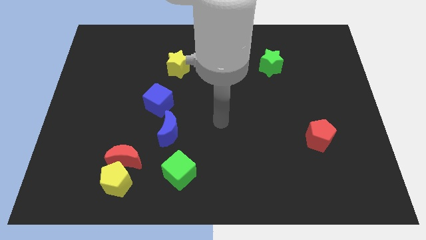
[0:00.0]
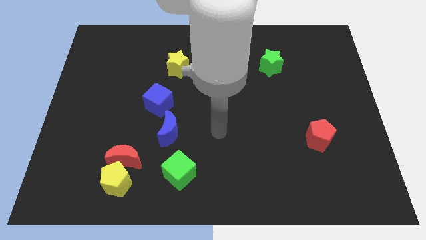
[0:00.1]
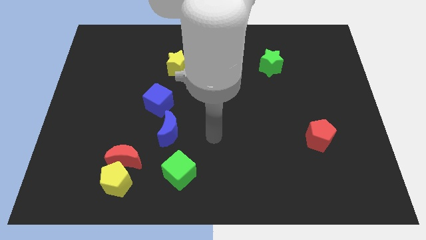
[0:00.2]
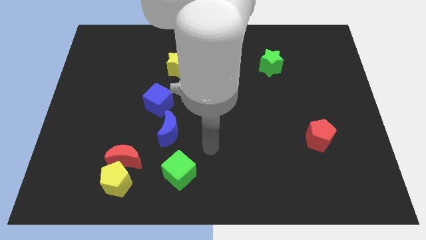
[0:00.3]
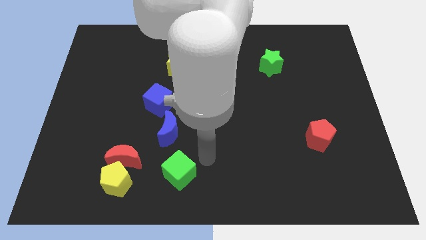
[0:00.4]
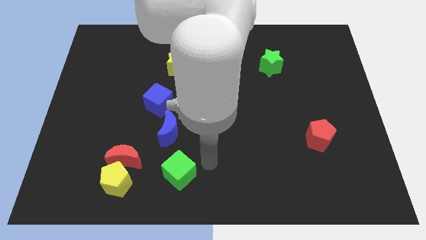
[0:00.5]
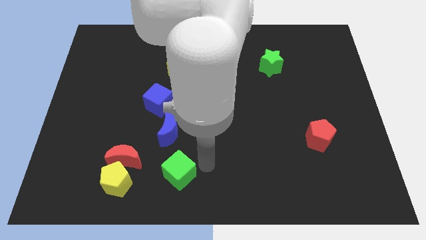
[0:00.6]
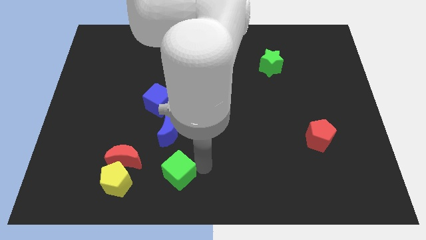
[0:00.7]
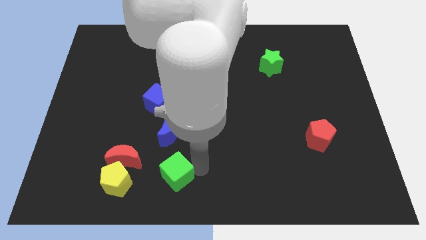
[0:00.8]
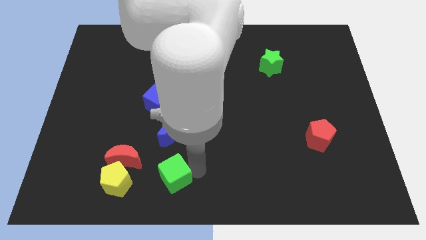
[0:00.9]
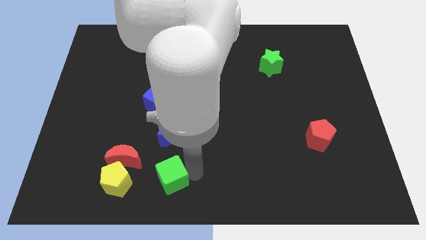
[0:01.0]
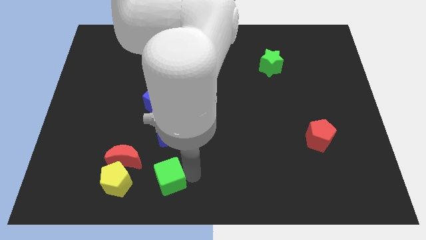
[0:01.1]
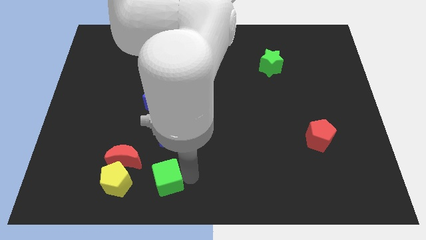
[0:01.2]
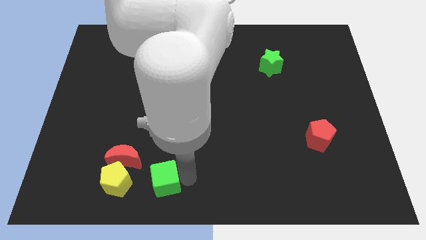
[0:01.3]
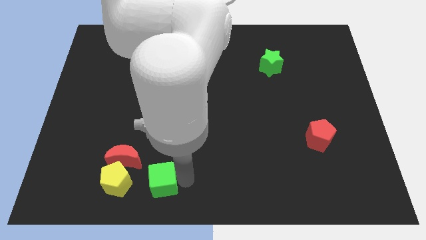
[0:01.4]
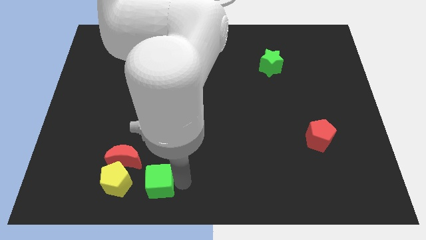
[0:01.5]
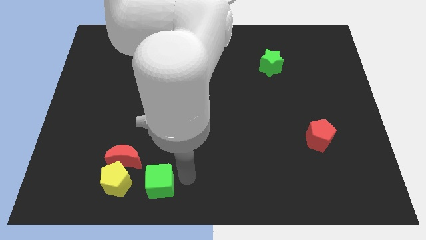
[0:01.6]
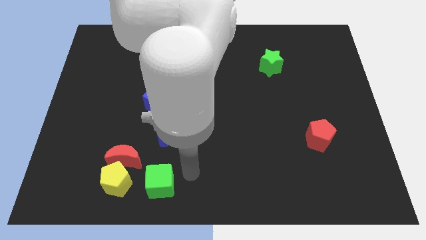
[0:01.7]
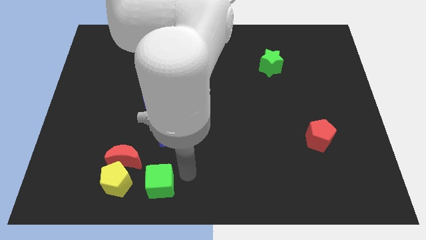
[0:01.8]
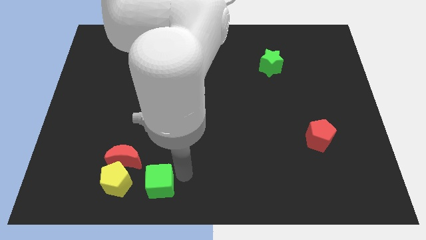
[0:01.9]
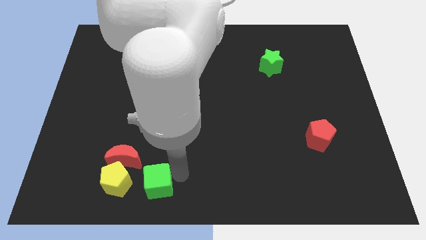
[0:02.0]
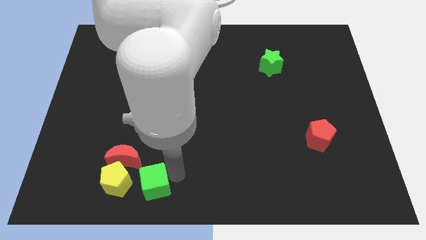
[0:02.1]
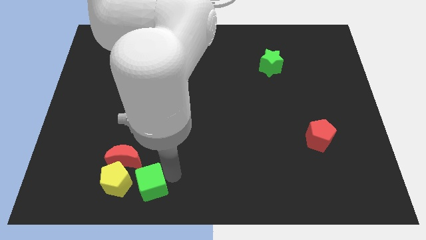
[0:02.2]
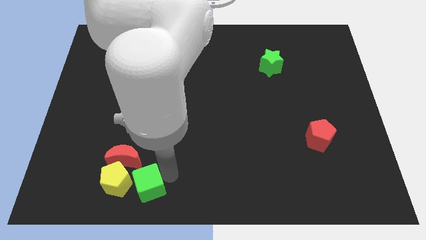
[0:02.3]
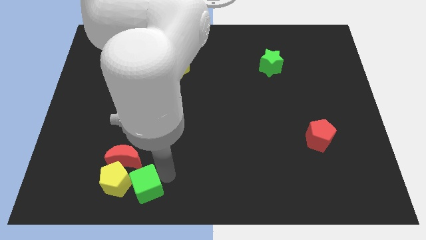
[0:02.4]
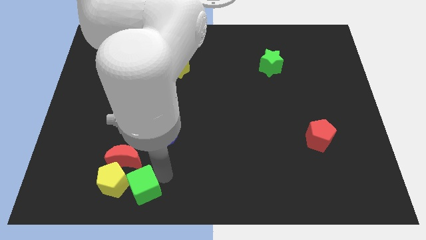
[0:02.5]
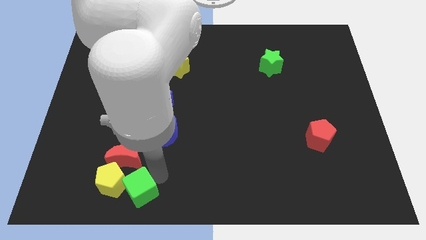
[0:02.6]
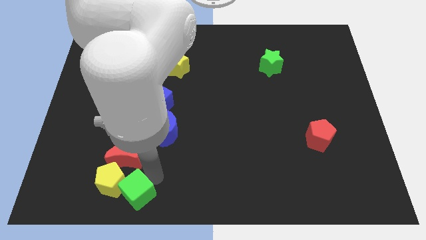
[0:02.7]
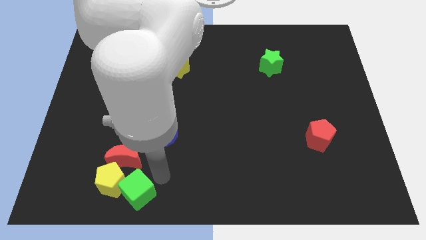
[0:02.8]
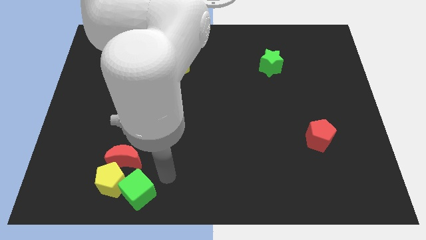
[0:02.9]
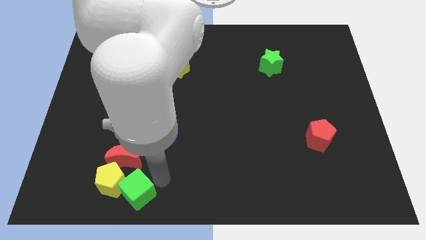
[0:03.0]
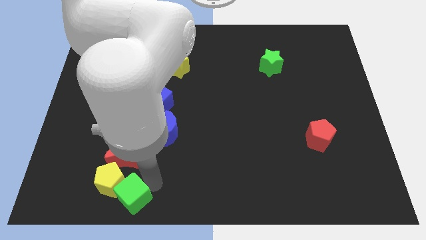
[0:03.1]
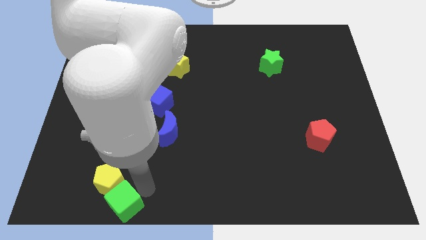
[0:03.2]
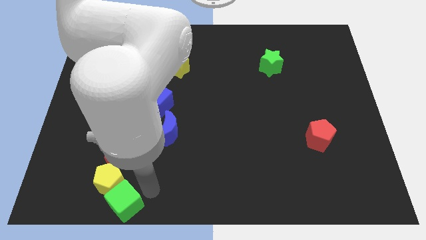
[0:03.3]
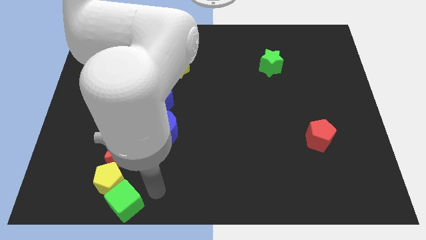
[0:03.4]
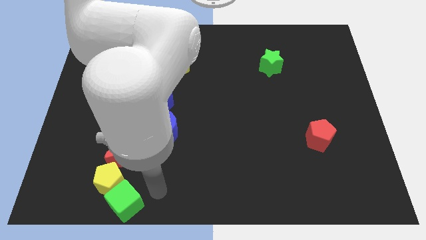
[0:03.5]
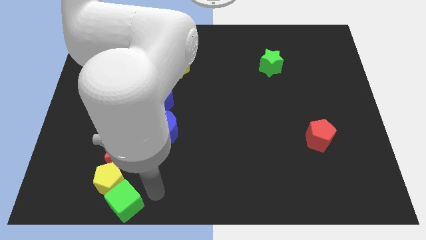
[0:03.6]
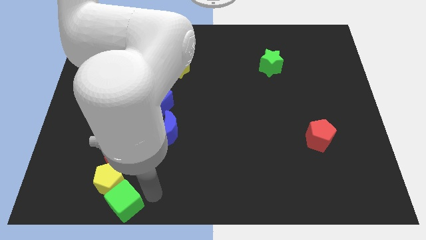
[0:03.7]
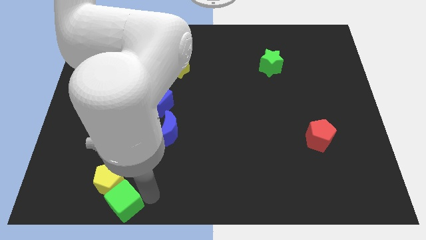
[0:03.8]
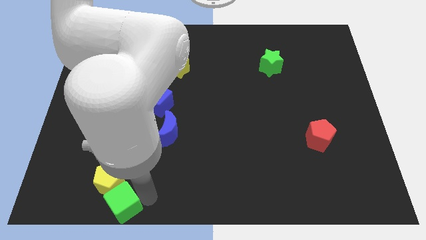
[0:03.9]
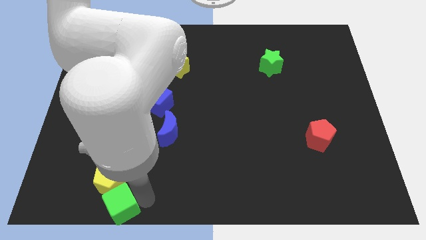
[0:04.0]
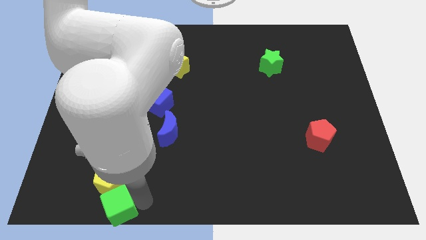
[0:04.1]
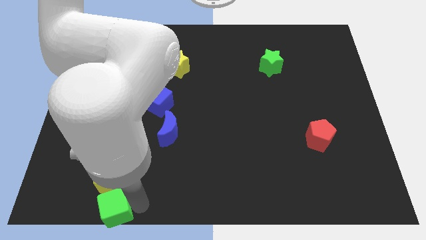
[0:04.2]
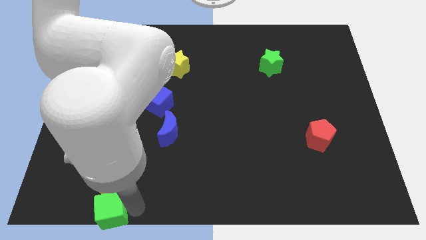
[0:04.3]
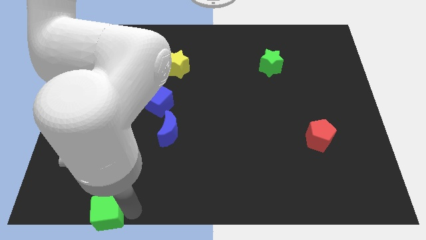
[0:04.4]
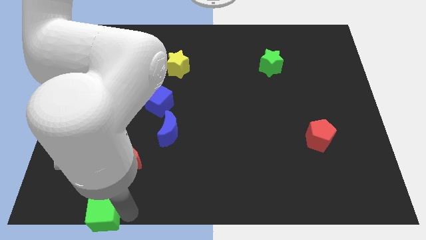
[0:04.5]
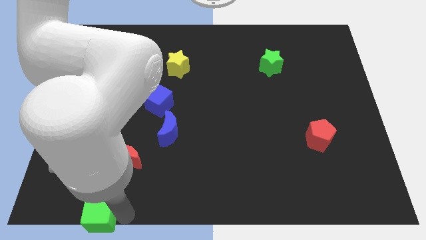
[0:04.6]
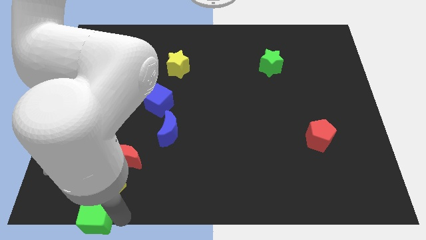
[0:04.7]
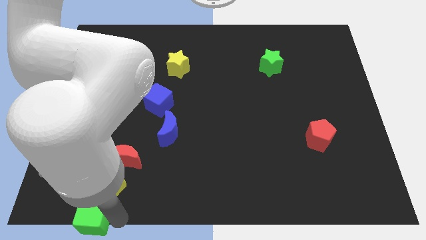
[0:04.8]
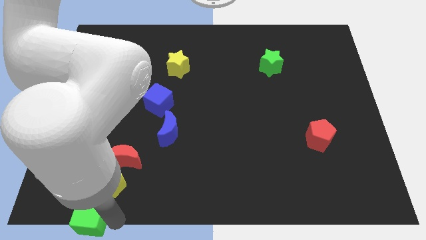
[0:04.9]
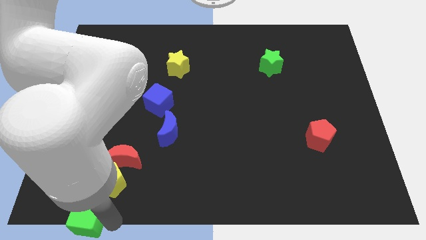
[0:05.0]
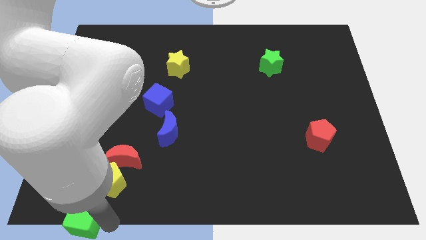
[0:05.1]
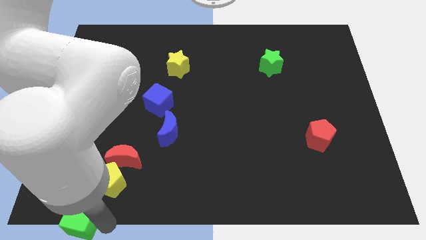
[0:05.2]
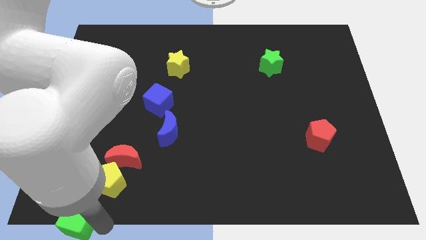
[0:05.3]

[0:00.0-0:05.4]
push the green cube to the lower left corner

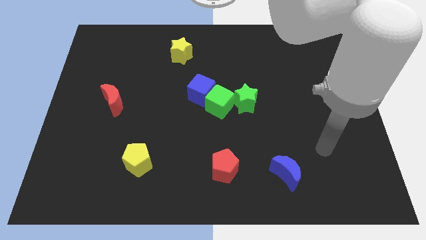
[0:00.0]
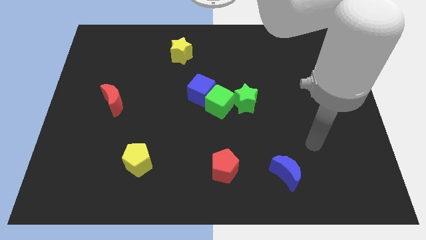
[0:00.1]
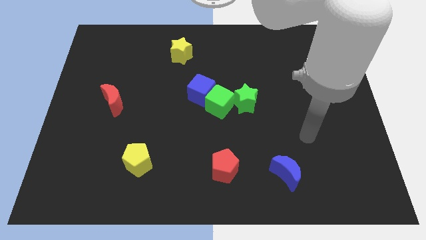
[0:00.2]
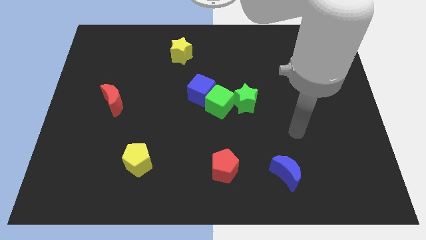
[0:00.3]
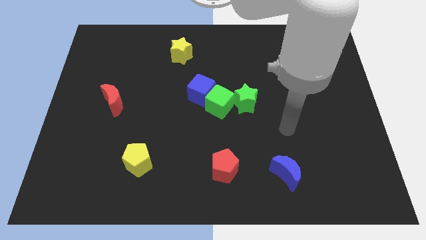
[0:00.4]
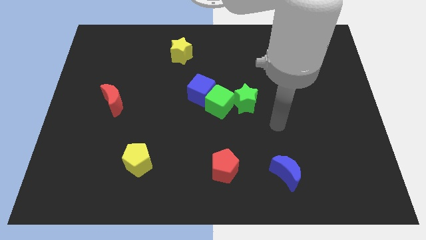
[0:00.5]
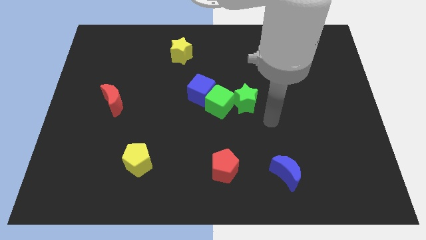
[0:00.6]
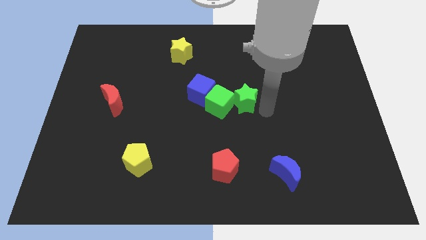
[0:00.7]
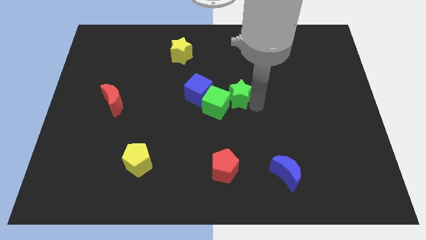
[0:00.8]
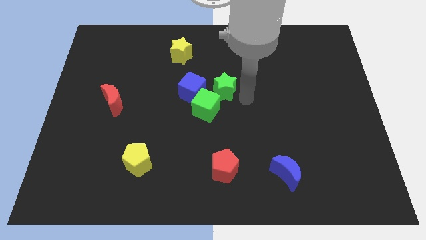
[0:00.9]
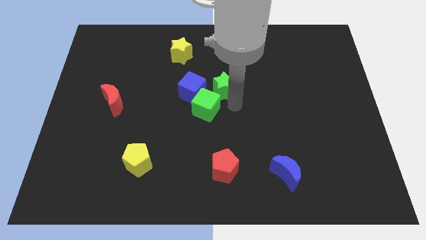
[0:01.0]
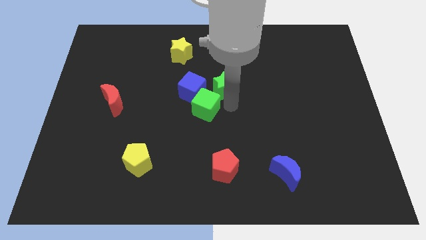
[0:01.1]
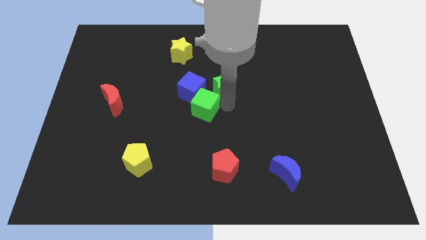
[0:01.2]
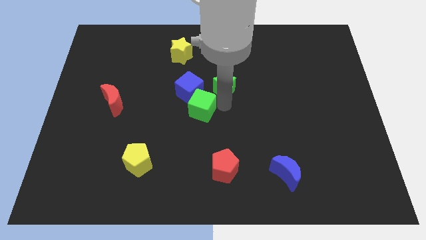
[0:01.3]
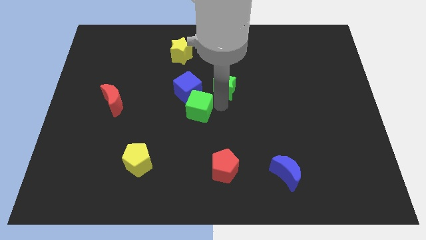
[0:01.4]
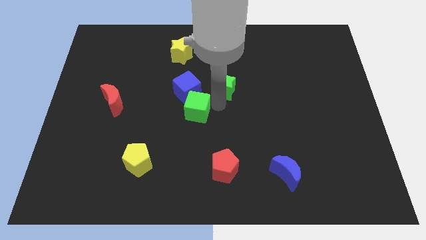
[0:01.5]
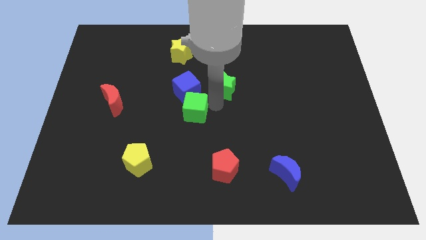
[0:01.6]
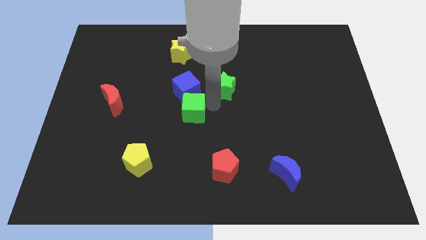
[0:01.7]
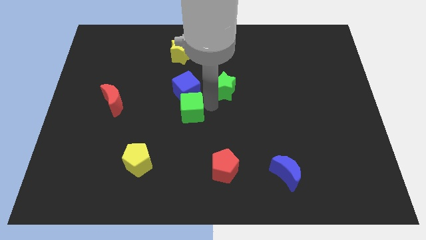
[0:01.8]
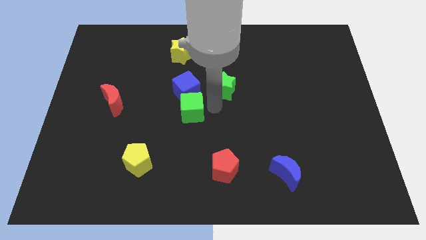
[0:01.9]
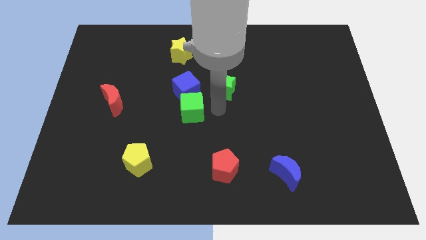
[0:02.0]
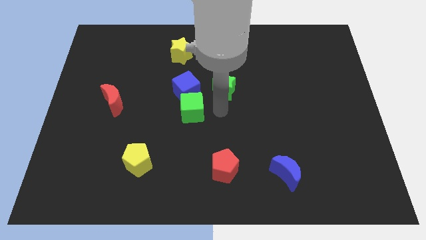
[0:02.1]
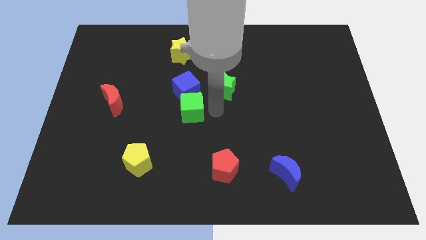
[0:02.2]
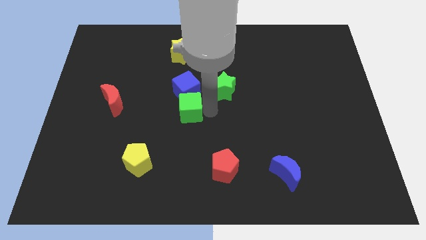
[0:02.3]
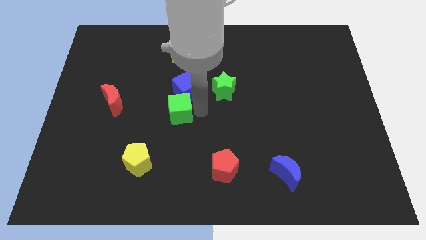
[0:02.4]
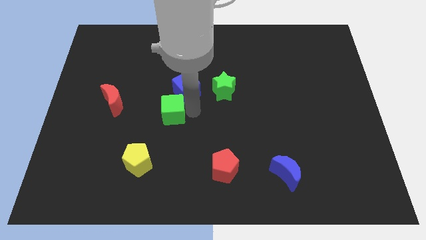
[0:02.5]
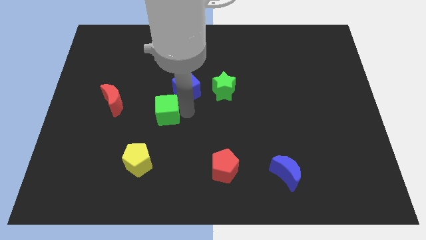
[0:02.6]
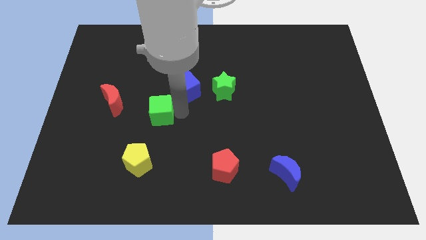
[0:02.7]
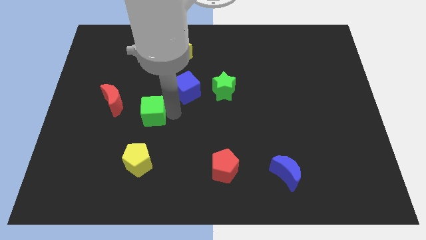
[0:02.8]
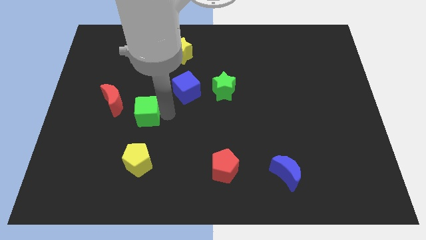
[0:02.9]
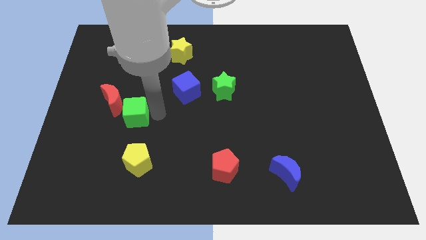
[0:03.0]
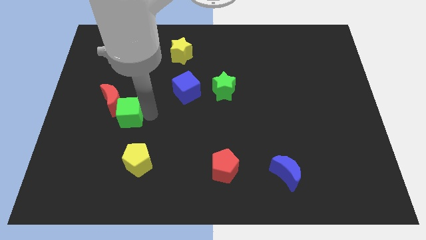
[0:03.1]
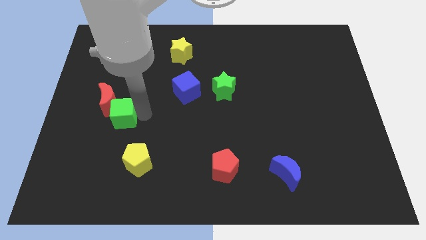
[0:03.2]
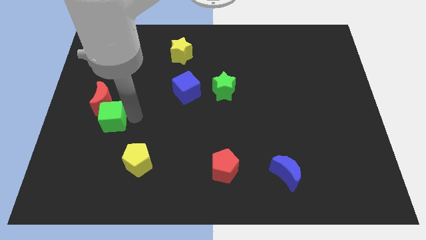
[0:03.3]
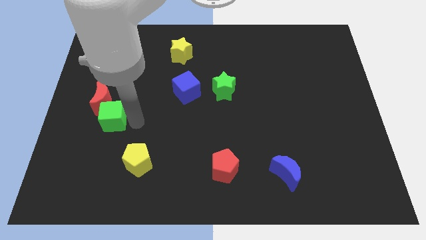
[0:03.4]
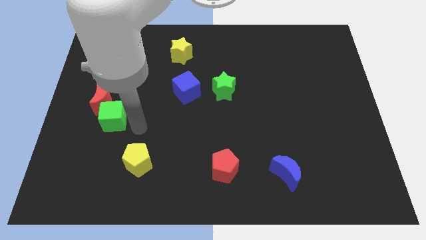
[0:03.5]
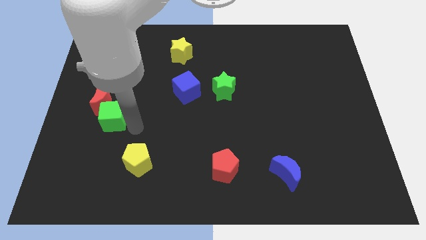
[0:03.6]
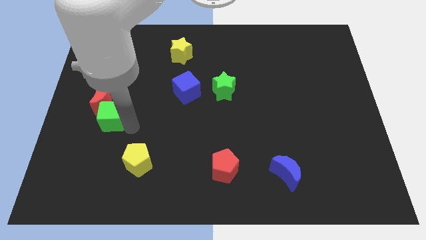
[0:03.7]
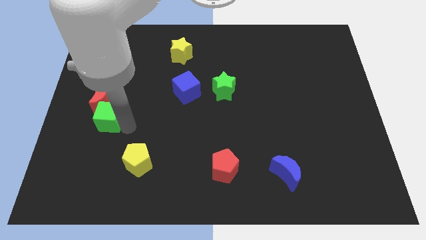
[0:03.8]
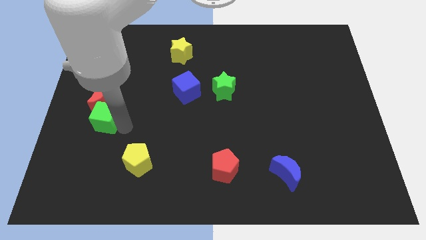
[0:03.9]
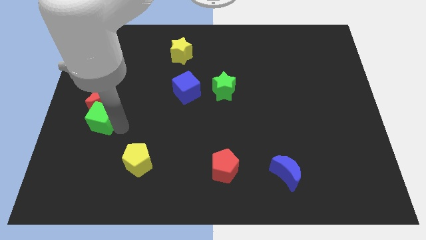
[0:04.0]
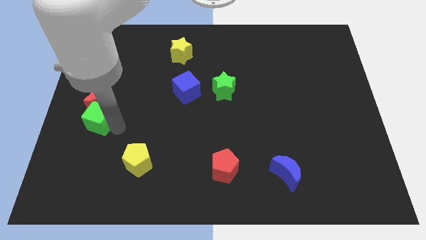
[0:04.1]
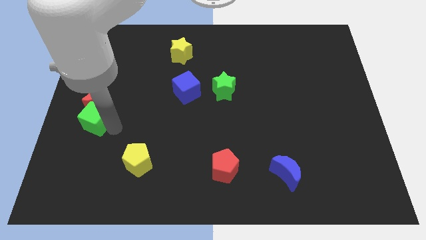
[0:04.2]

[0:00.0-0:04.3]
slide the green cube to the center left
